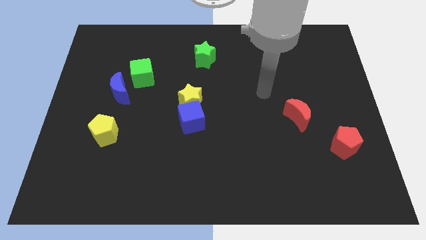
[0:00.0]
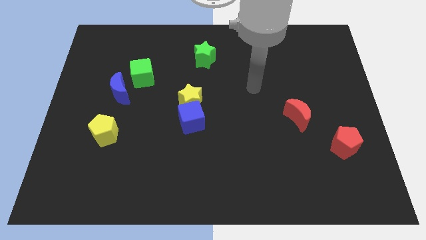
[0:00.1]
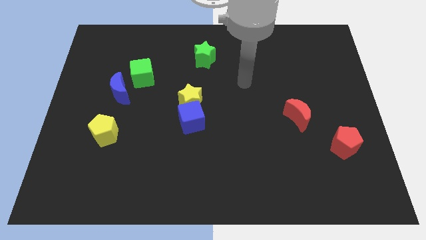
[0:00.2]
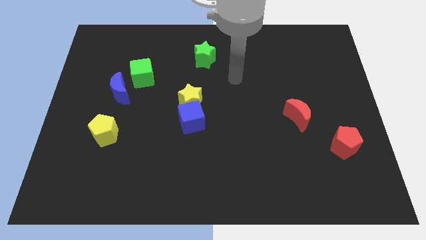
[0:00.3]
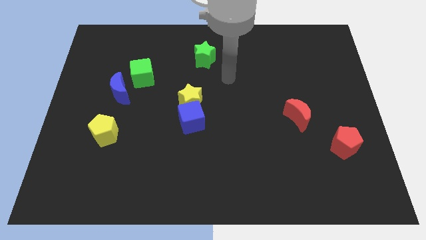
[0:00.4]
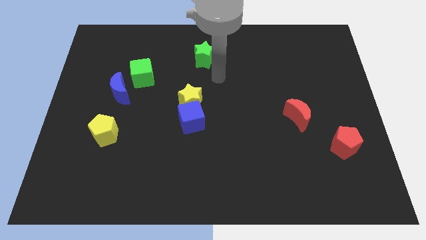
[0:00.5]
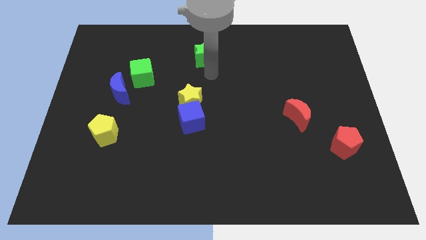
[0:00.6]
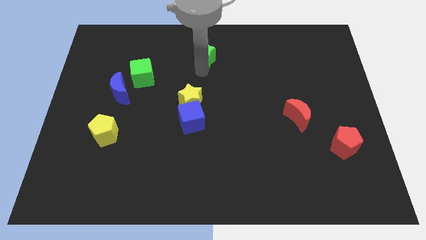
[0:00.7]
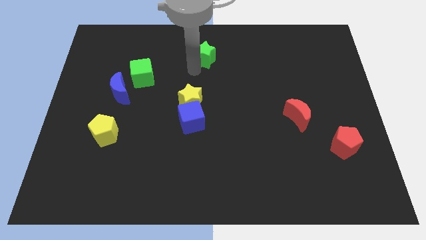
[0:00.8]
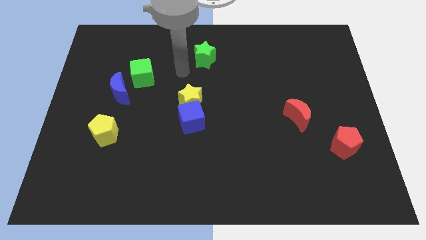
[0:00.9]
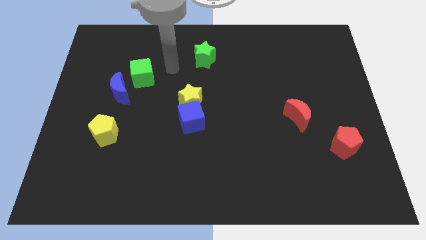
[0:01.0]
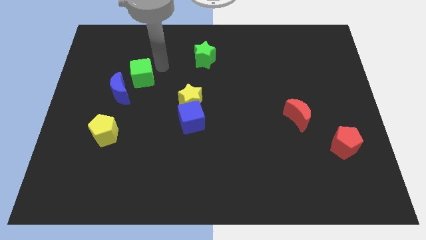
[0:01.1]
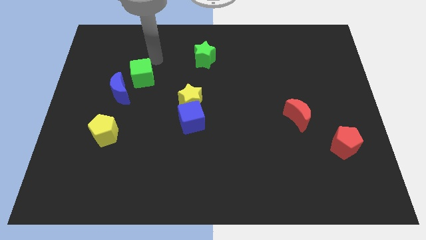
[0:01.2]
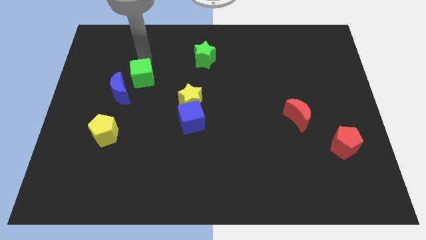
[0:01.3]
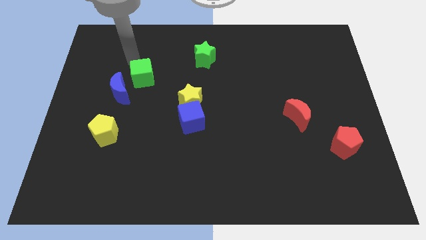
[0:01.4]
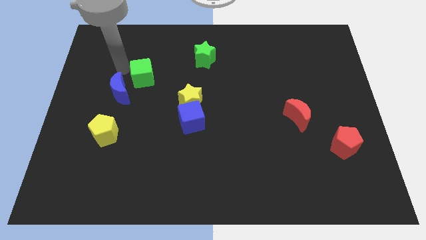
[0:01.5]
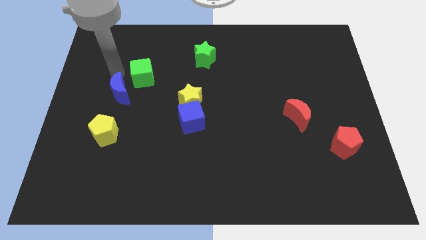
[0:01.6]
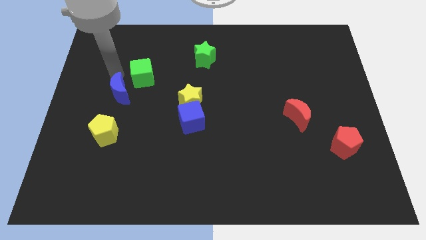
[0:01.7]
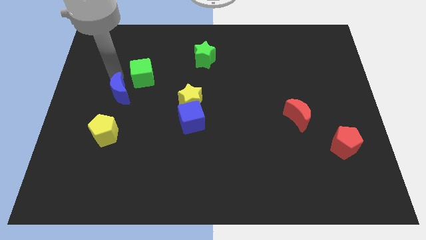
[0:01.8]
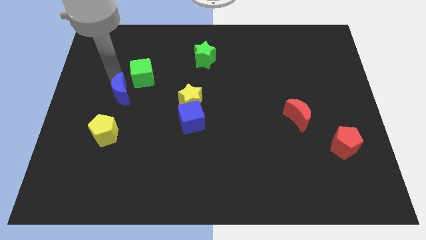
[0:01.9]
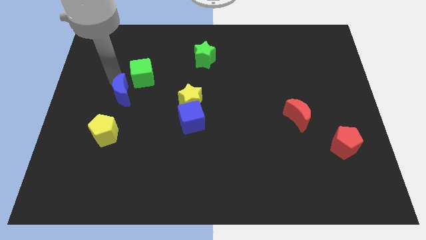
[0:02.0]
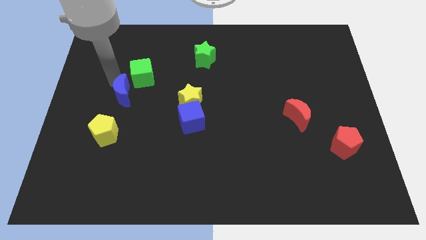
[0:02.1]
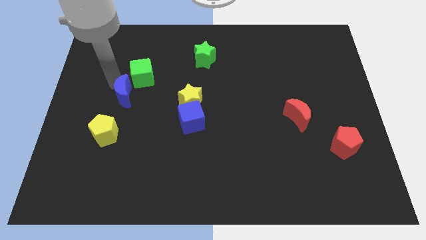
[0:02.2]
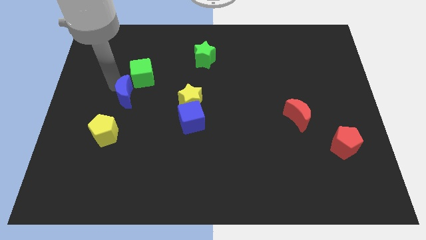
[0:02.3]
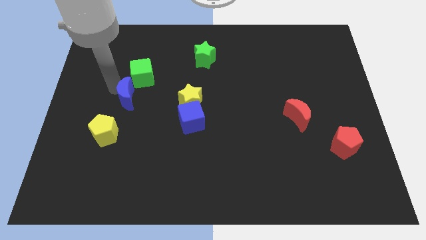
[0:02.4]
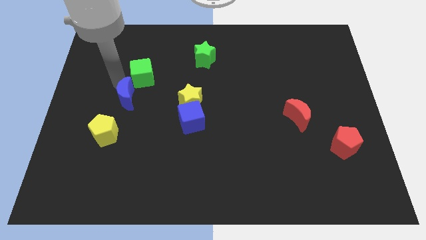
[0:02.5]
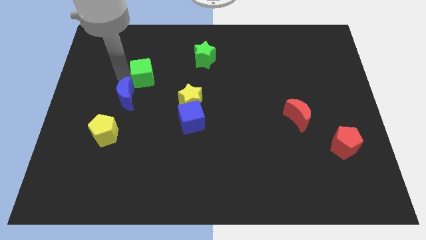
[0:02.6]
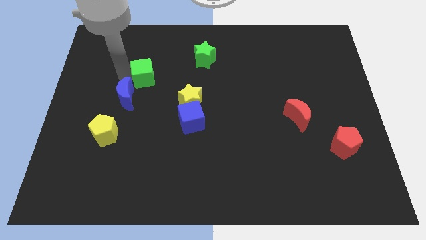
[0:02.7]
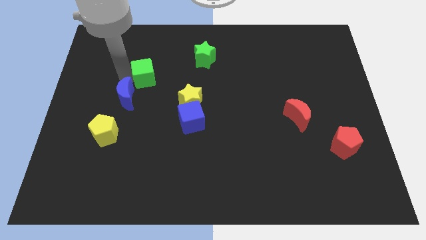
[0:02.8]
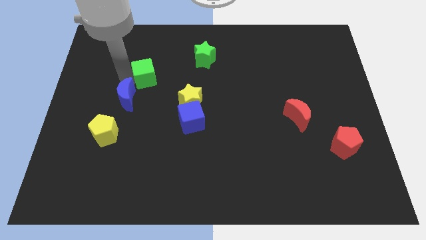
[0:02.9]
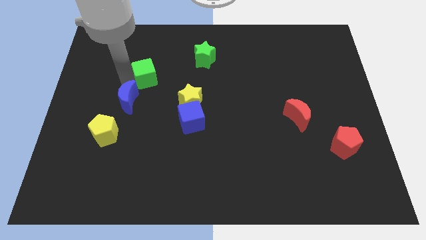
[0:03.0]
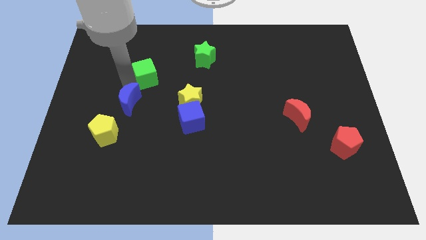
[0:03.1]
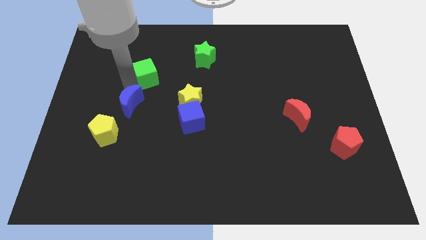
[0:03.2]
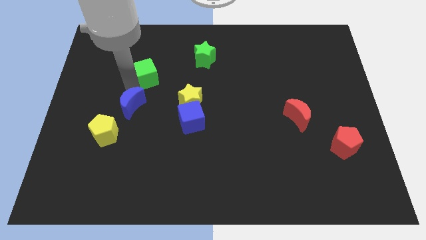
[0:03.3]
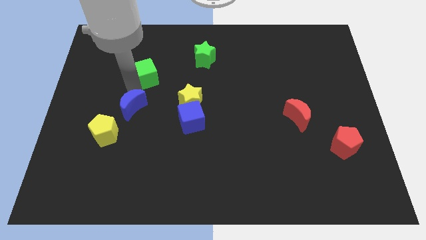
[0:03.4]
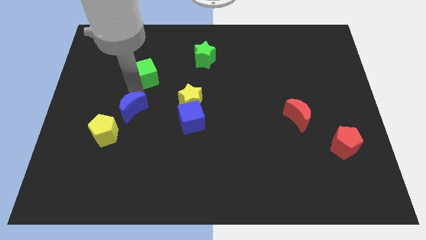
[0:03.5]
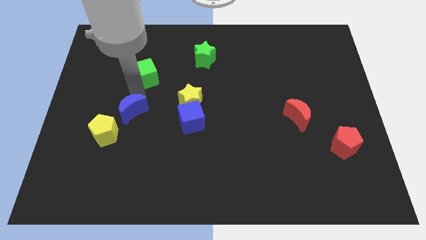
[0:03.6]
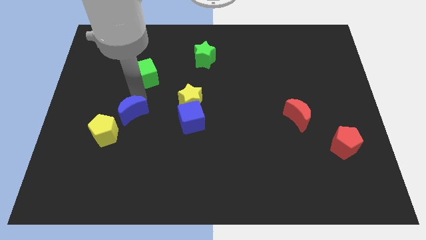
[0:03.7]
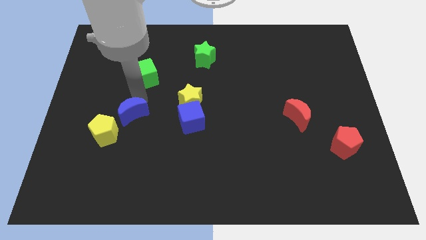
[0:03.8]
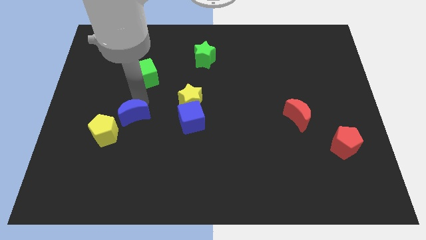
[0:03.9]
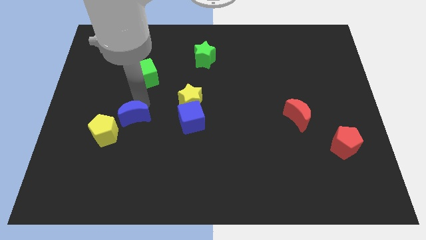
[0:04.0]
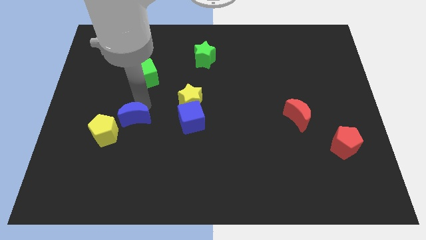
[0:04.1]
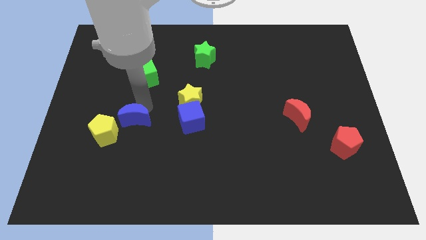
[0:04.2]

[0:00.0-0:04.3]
slide the blue moon down a bit

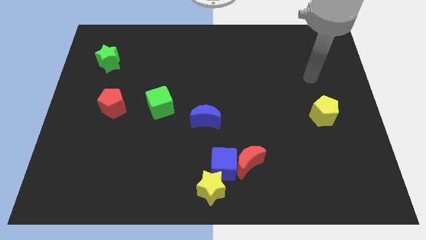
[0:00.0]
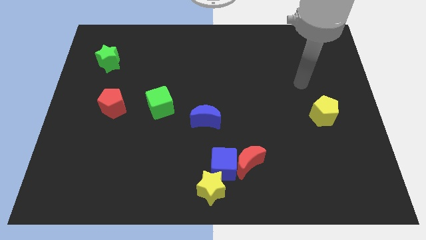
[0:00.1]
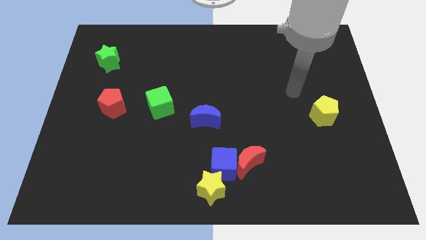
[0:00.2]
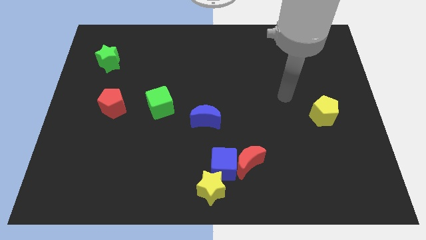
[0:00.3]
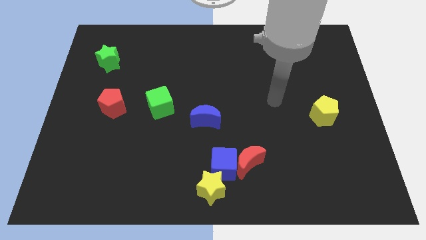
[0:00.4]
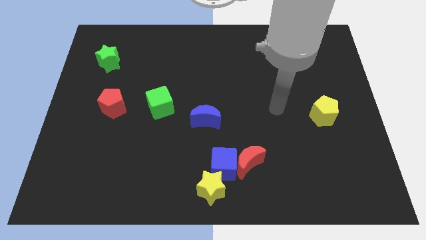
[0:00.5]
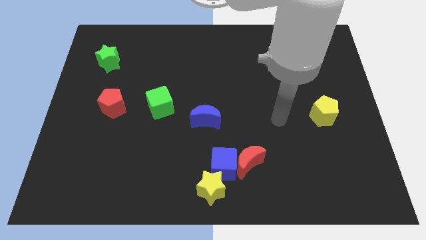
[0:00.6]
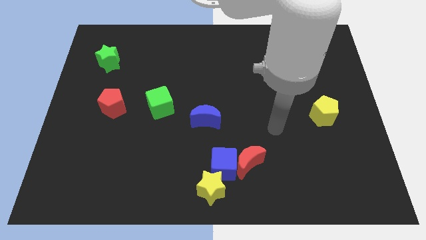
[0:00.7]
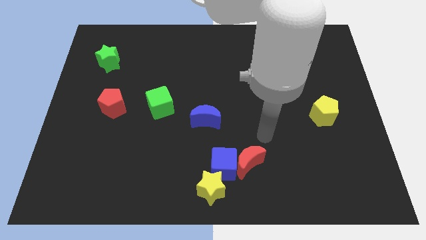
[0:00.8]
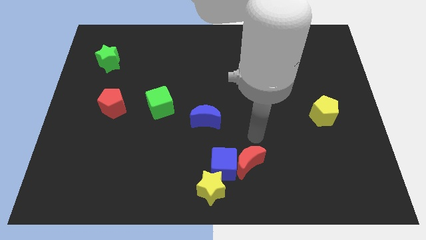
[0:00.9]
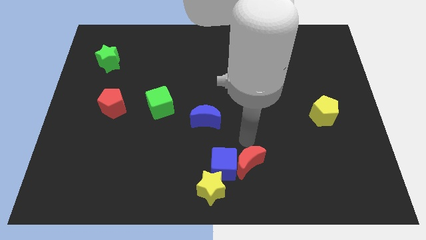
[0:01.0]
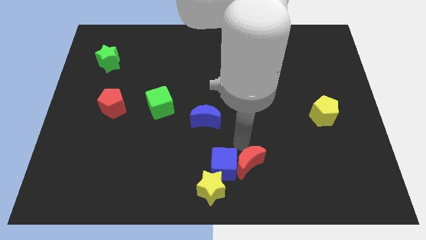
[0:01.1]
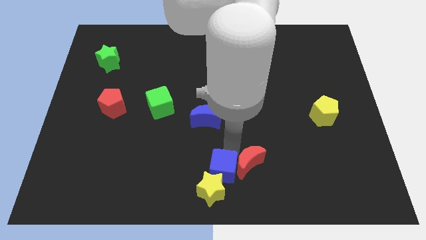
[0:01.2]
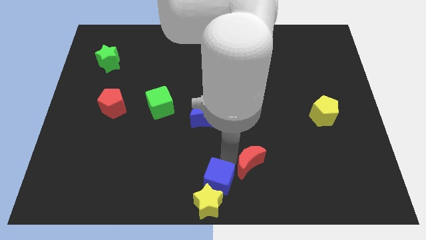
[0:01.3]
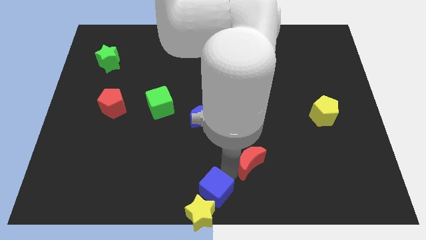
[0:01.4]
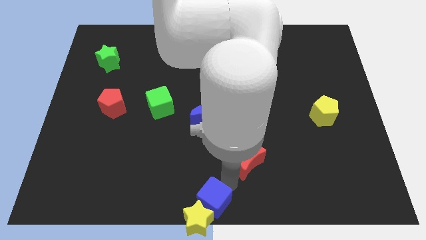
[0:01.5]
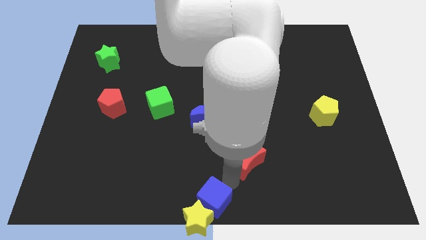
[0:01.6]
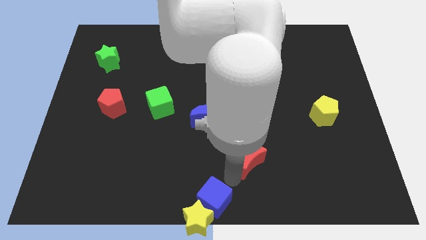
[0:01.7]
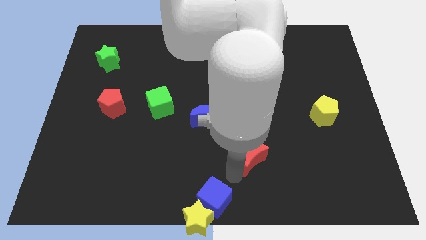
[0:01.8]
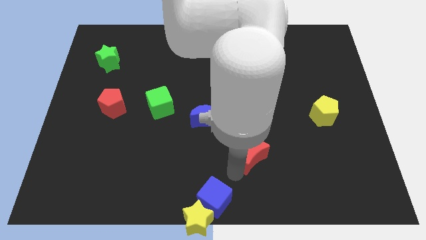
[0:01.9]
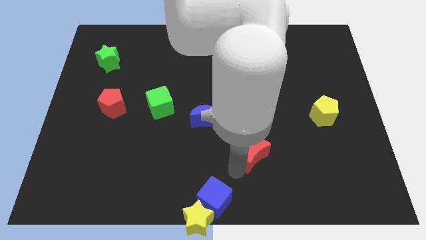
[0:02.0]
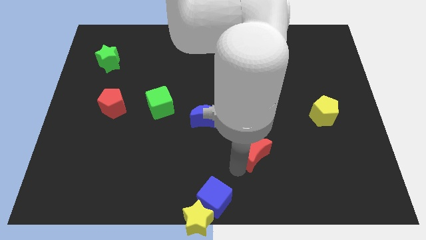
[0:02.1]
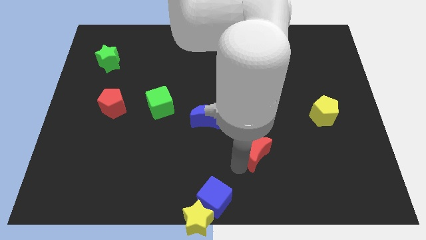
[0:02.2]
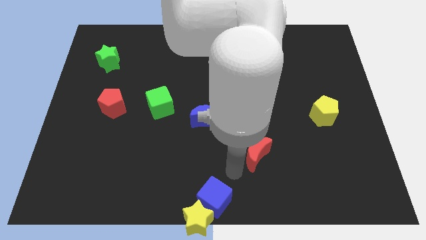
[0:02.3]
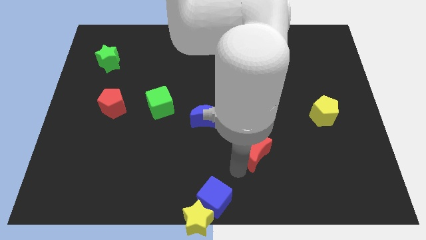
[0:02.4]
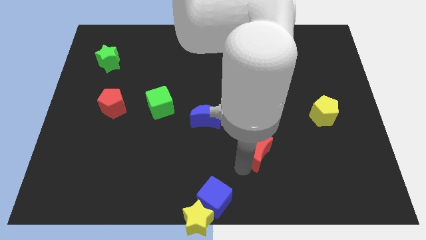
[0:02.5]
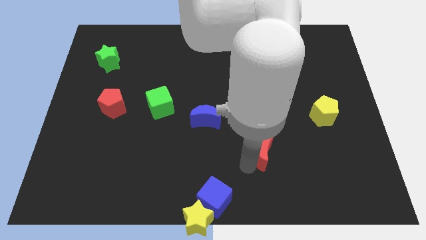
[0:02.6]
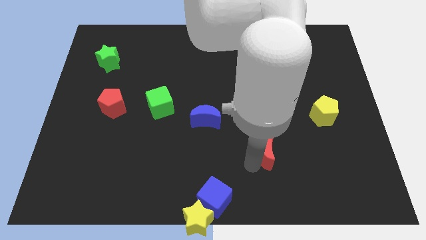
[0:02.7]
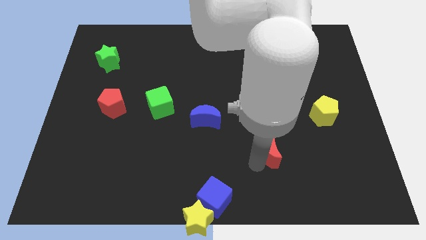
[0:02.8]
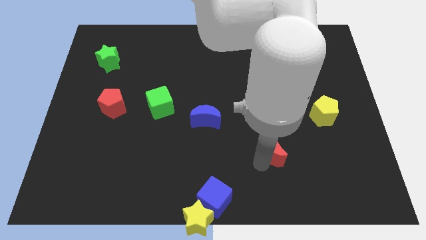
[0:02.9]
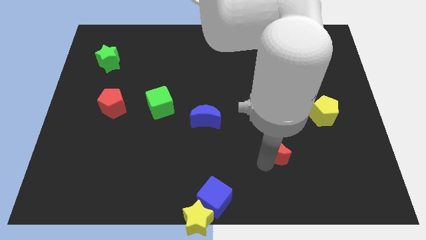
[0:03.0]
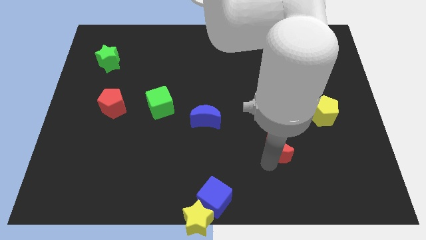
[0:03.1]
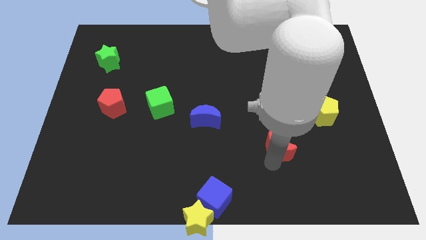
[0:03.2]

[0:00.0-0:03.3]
slightly move the red moon up and right diagonally

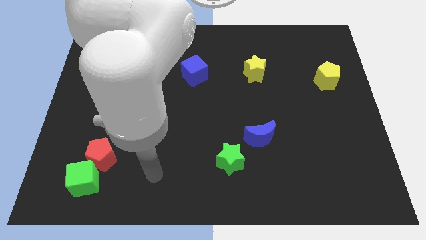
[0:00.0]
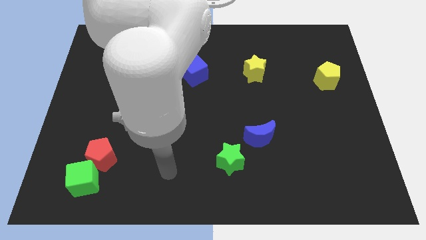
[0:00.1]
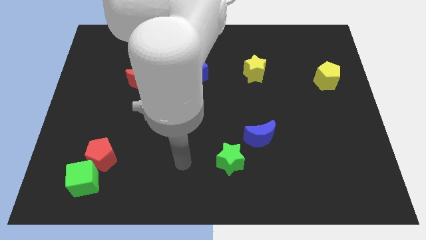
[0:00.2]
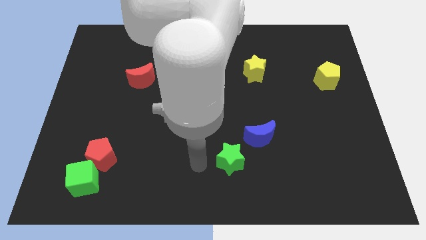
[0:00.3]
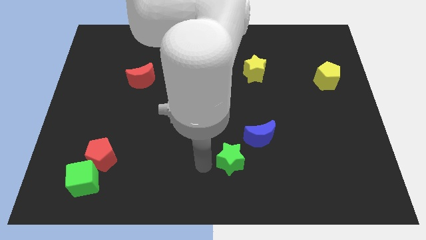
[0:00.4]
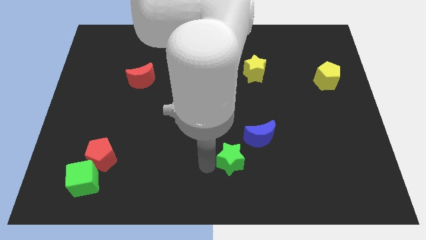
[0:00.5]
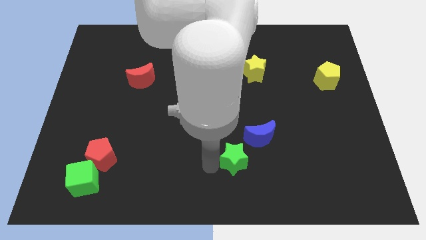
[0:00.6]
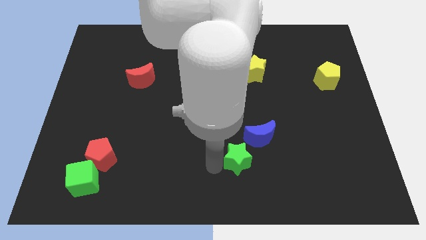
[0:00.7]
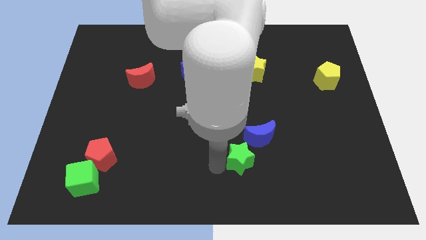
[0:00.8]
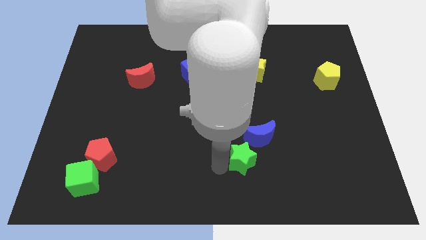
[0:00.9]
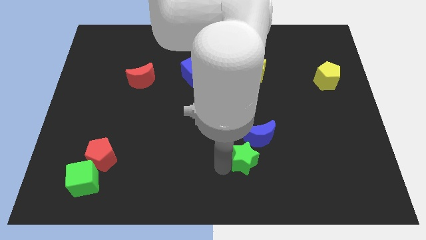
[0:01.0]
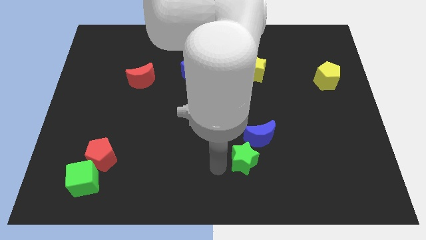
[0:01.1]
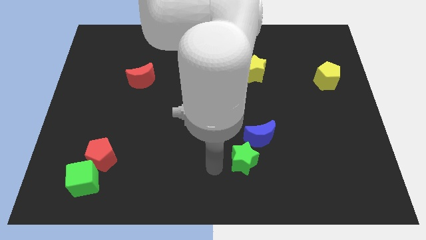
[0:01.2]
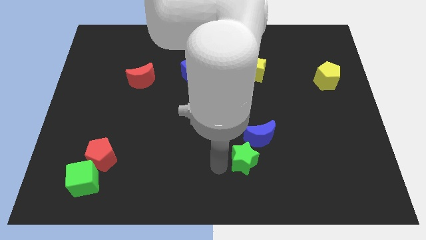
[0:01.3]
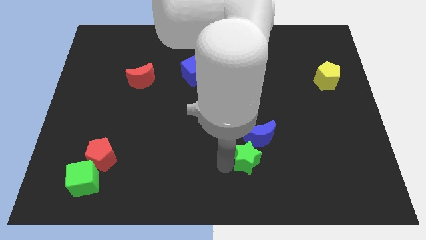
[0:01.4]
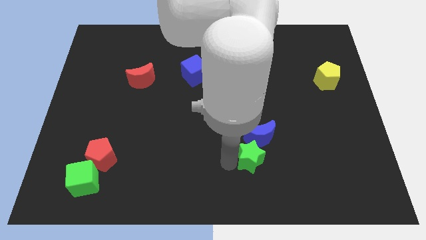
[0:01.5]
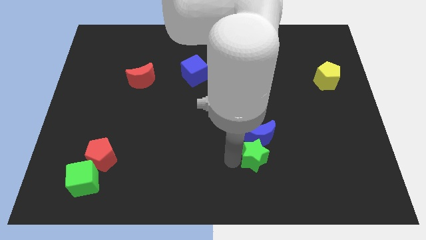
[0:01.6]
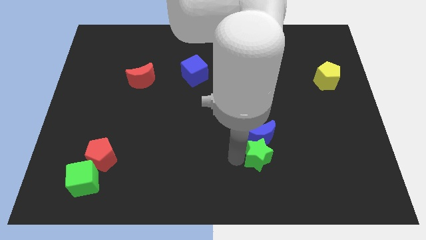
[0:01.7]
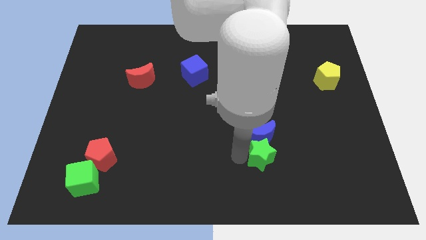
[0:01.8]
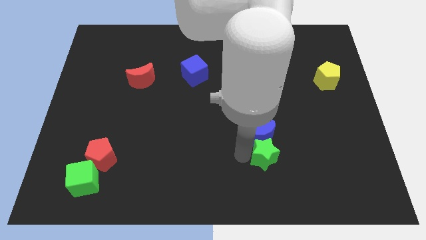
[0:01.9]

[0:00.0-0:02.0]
move the green star a bit to the right
